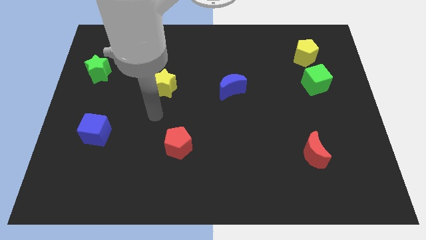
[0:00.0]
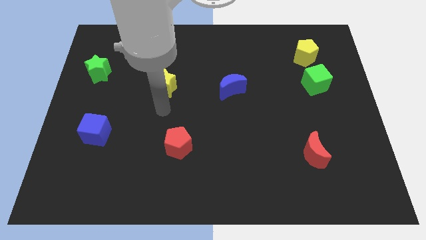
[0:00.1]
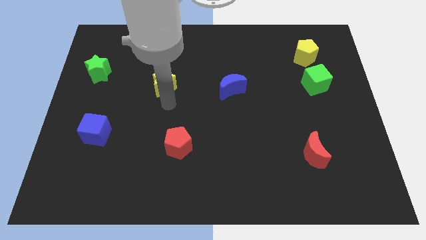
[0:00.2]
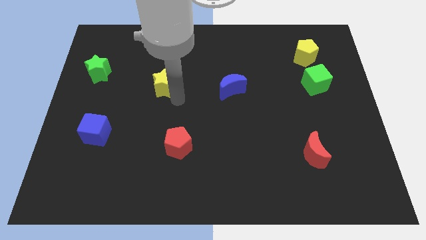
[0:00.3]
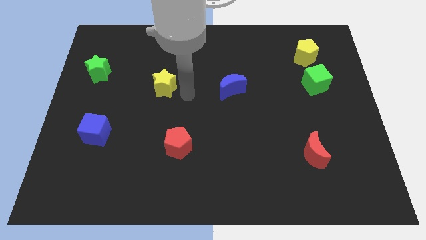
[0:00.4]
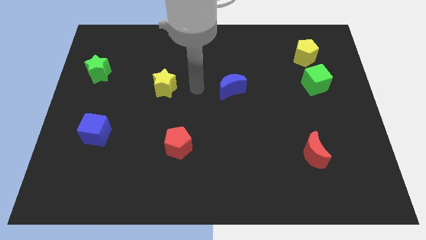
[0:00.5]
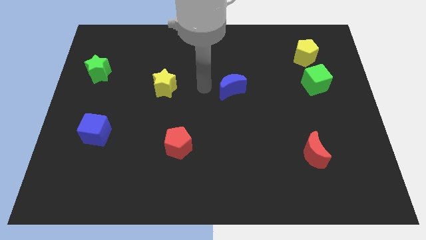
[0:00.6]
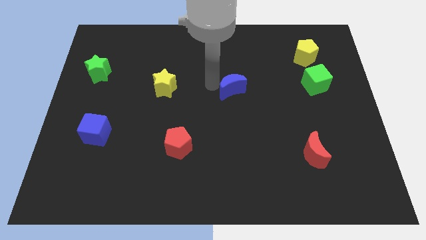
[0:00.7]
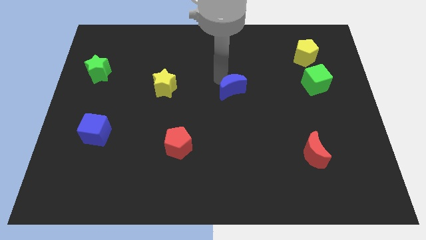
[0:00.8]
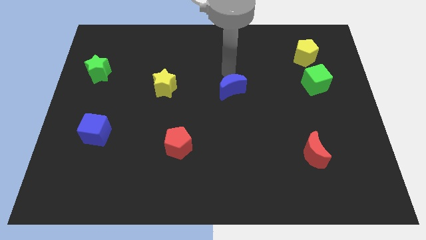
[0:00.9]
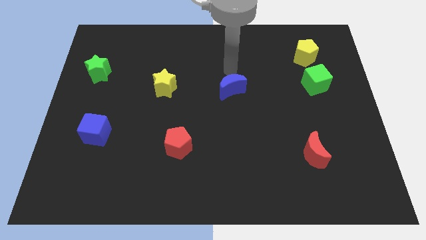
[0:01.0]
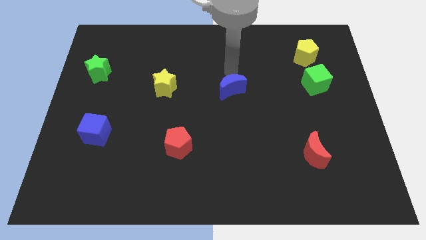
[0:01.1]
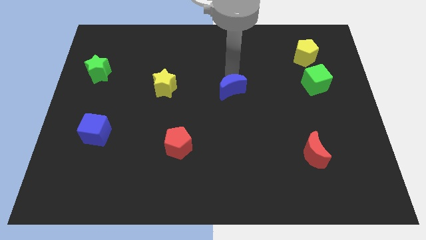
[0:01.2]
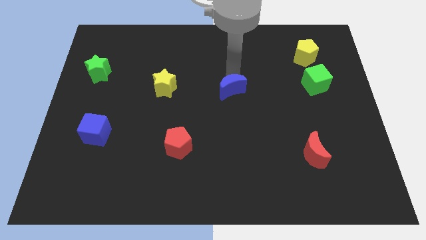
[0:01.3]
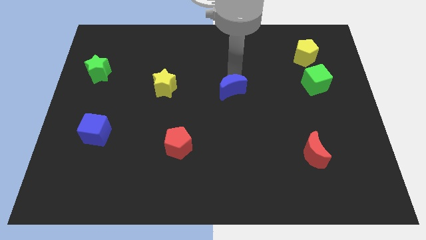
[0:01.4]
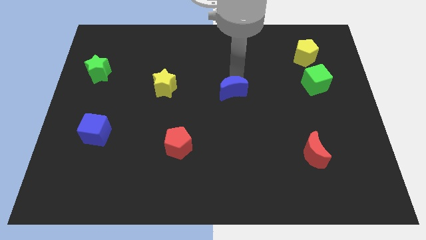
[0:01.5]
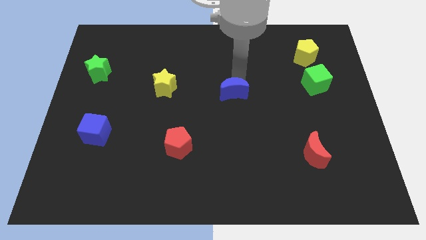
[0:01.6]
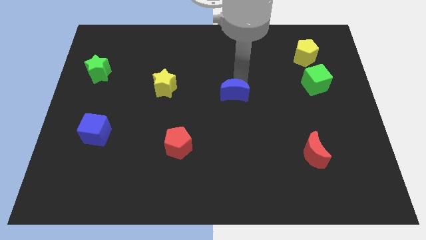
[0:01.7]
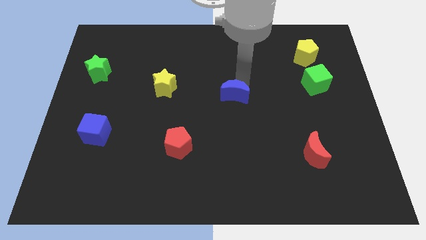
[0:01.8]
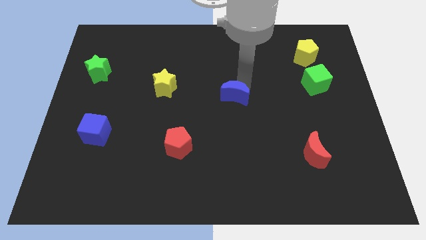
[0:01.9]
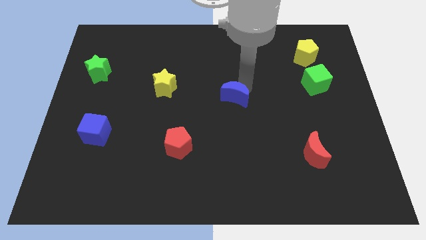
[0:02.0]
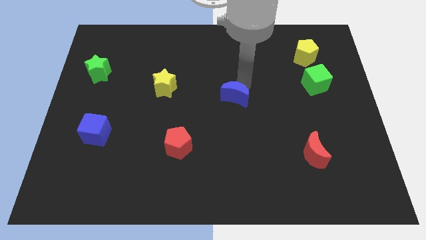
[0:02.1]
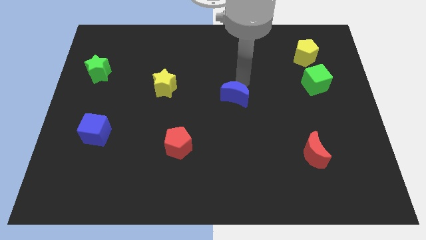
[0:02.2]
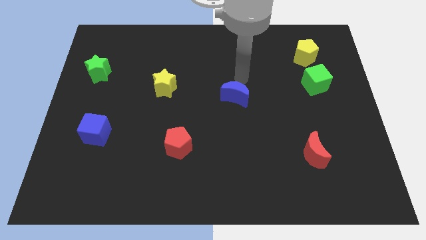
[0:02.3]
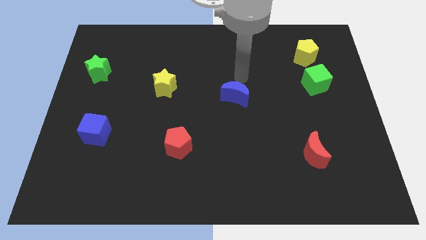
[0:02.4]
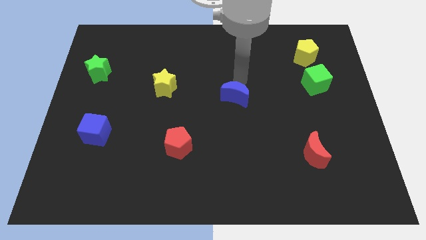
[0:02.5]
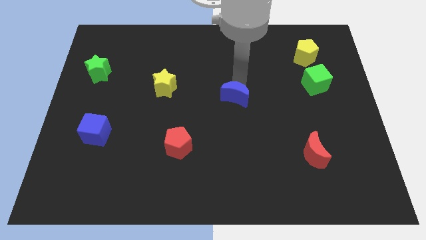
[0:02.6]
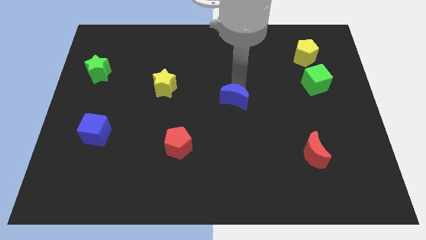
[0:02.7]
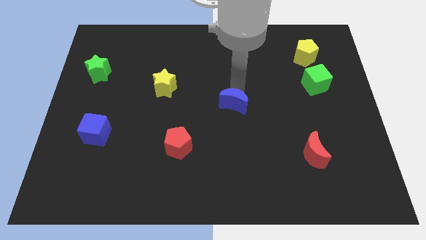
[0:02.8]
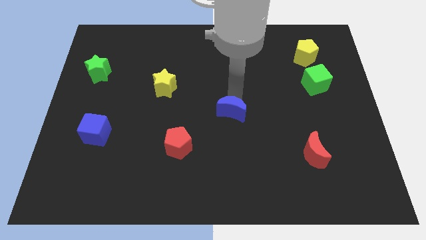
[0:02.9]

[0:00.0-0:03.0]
slightly move the blue moon down

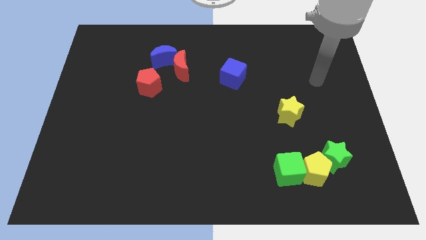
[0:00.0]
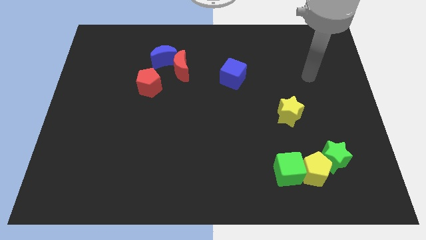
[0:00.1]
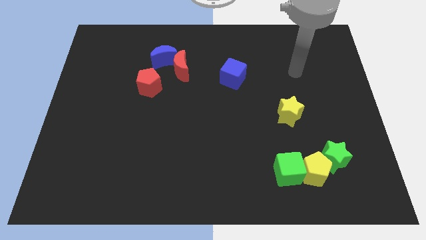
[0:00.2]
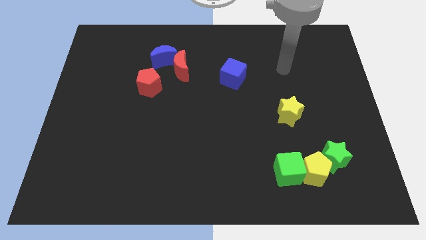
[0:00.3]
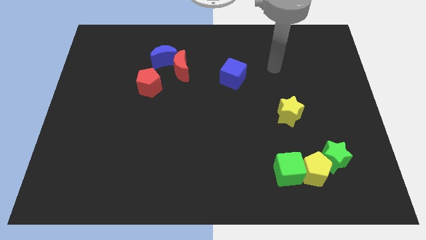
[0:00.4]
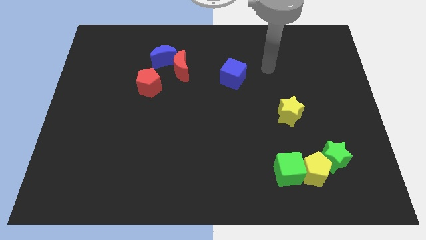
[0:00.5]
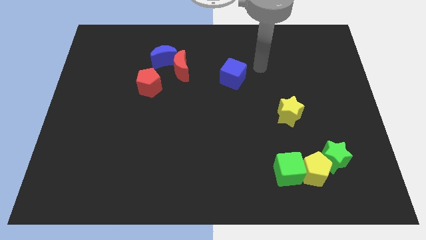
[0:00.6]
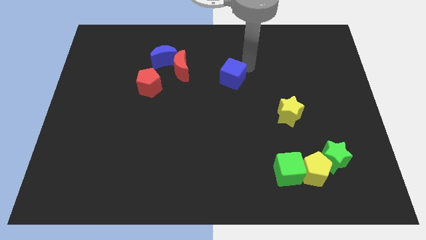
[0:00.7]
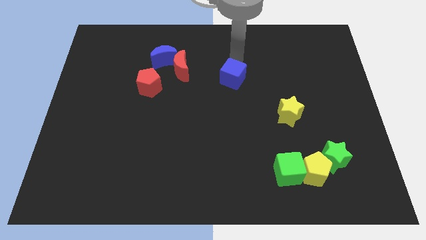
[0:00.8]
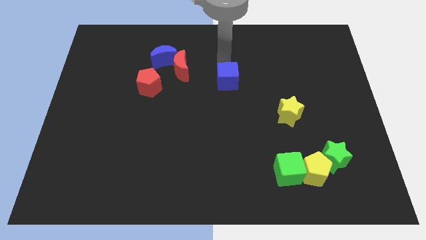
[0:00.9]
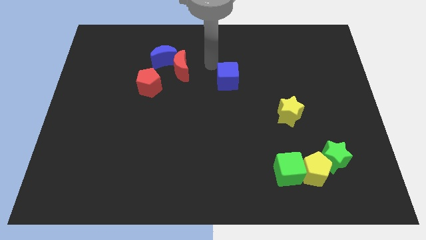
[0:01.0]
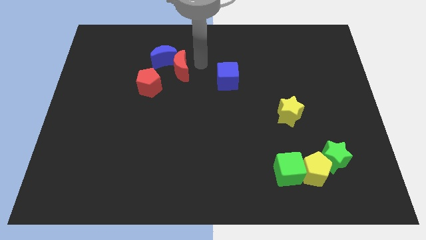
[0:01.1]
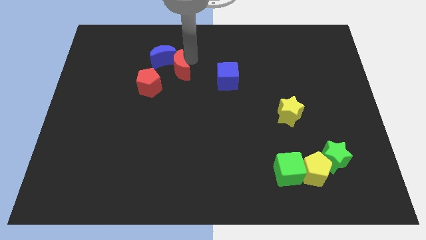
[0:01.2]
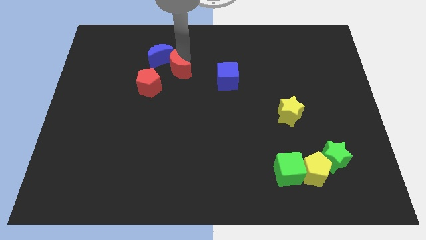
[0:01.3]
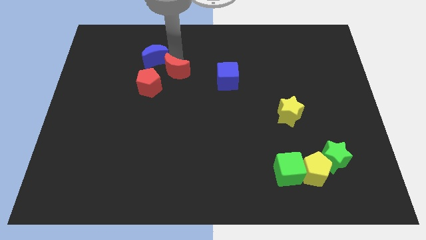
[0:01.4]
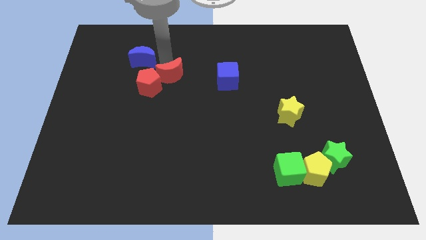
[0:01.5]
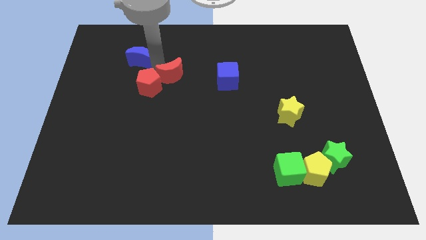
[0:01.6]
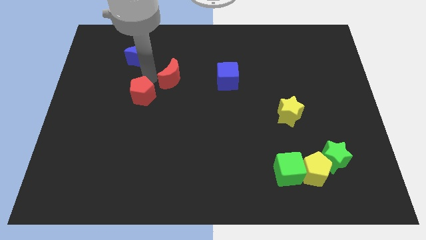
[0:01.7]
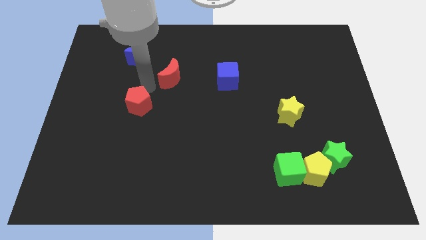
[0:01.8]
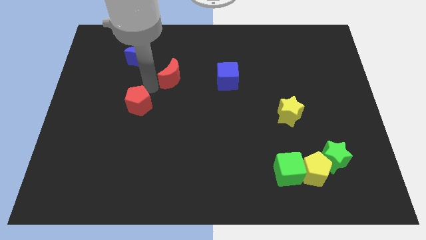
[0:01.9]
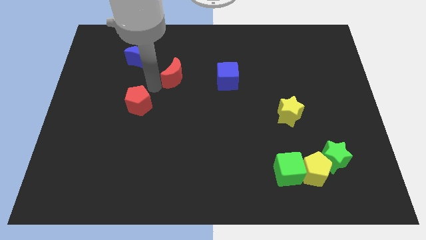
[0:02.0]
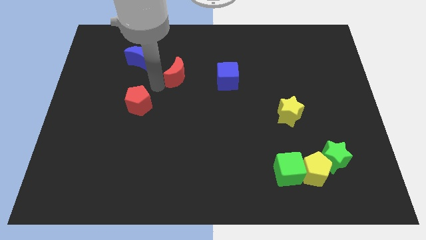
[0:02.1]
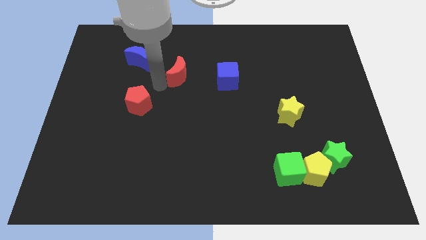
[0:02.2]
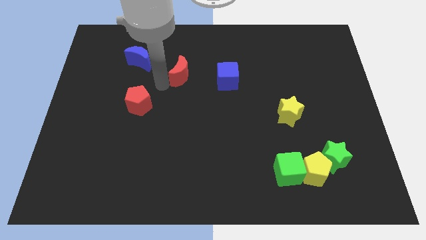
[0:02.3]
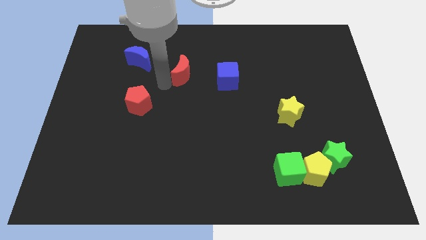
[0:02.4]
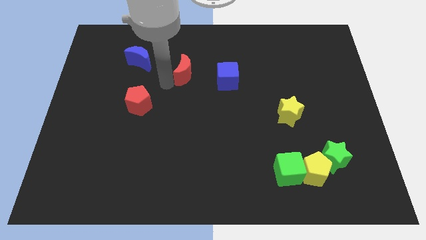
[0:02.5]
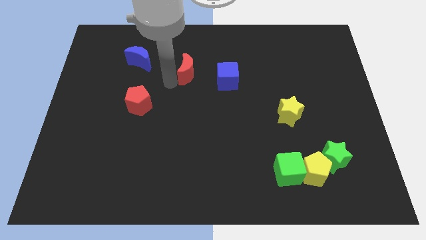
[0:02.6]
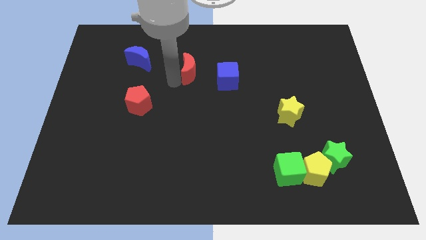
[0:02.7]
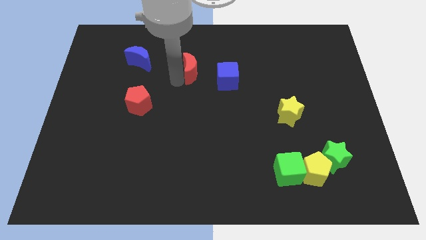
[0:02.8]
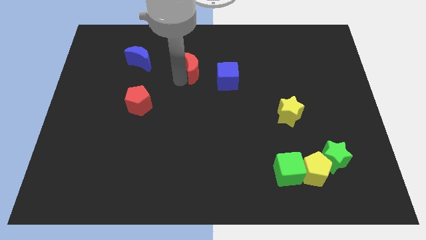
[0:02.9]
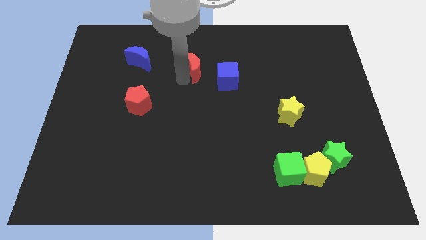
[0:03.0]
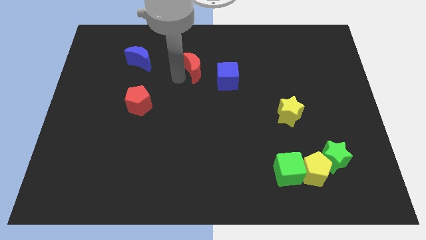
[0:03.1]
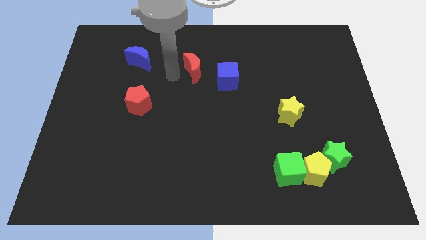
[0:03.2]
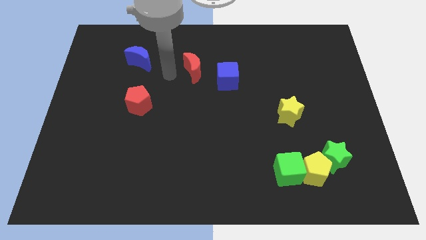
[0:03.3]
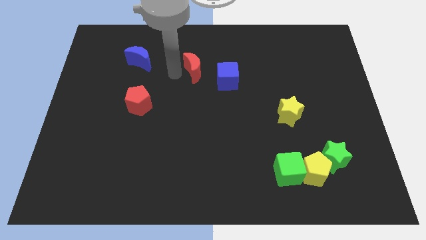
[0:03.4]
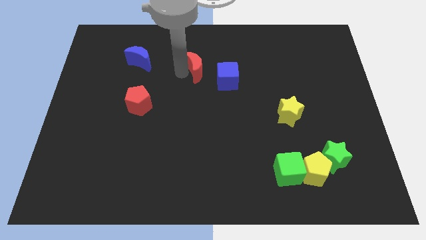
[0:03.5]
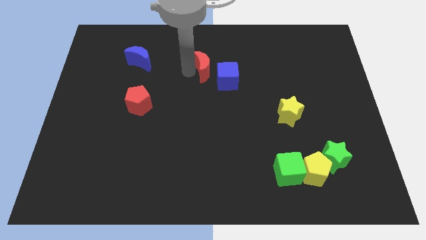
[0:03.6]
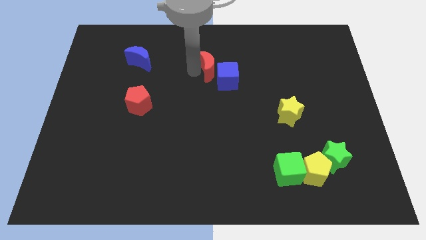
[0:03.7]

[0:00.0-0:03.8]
push the red moon to the right somewhat

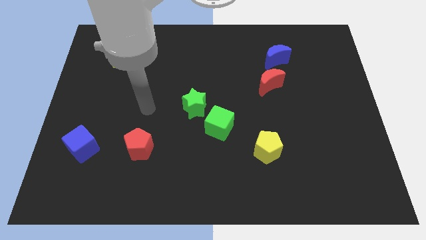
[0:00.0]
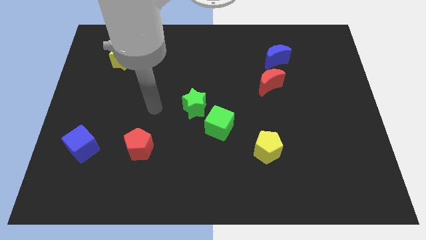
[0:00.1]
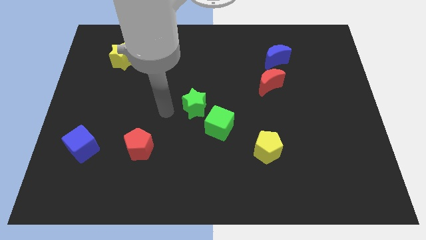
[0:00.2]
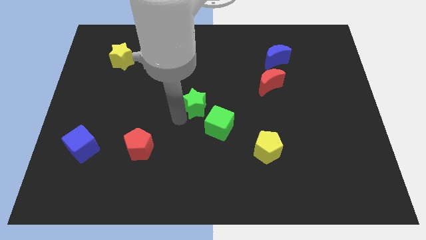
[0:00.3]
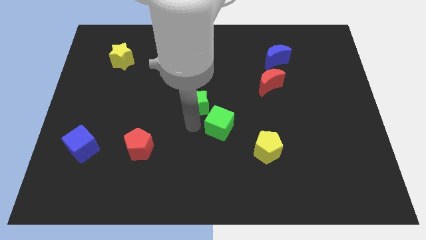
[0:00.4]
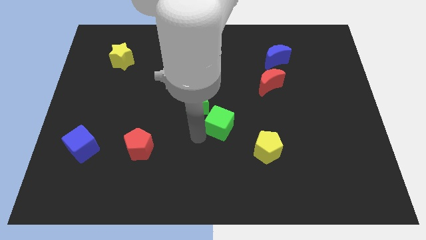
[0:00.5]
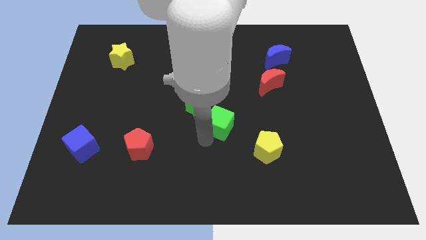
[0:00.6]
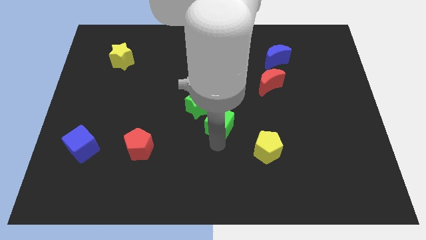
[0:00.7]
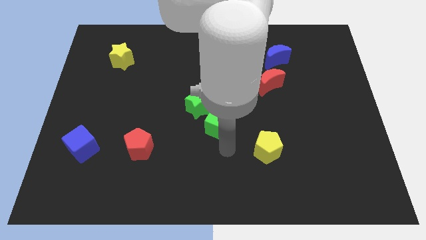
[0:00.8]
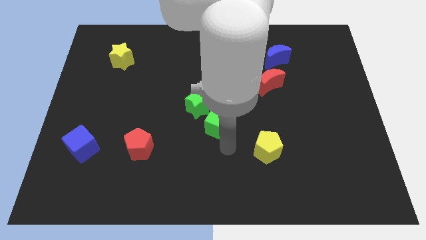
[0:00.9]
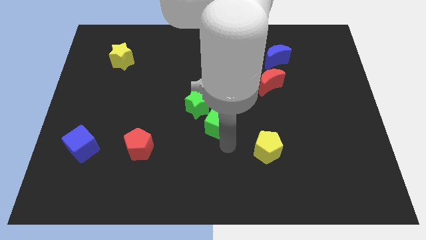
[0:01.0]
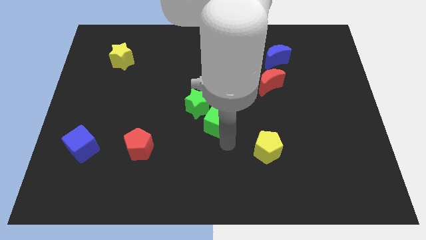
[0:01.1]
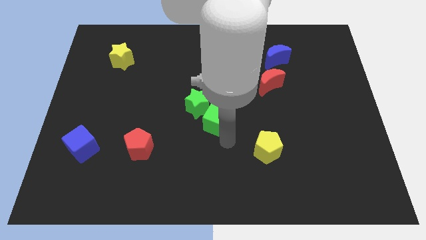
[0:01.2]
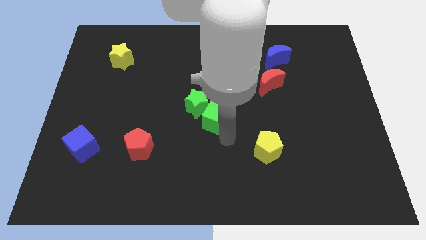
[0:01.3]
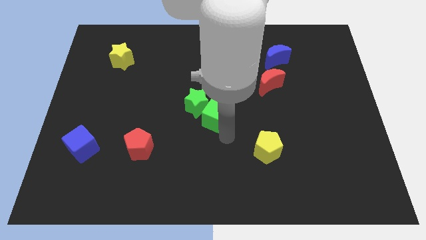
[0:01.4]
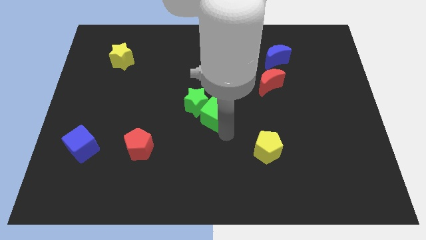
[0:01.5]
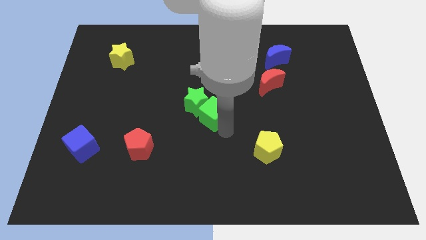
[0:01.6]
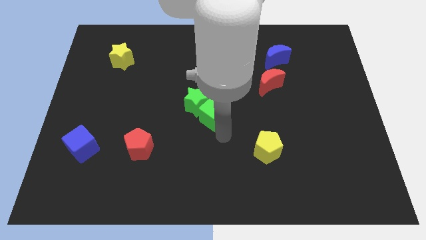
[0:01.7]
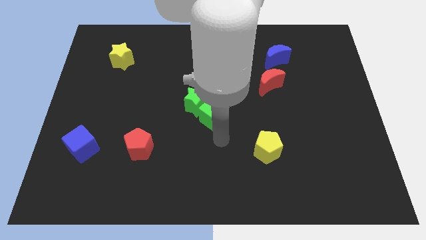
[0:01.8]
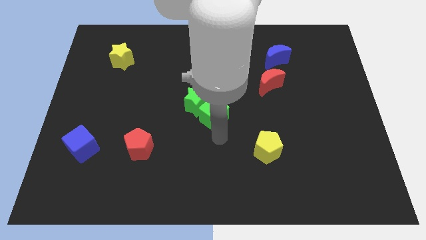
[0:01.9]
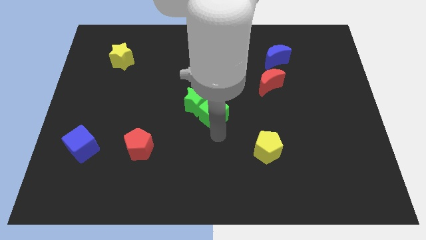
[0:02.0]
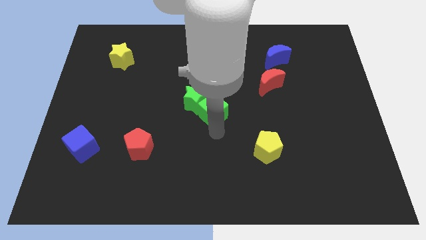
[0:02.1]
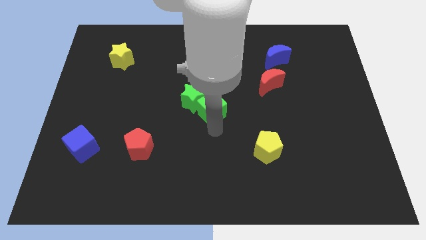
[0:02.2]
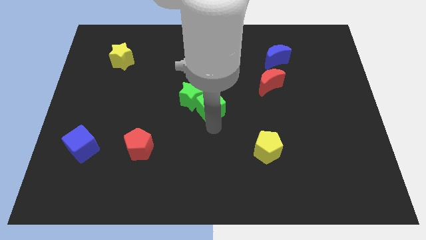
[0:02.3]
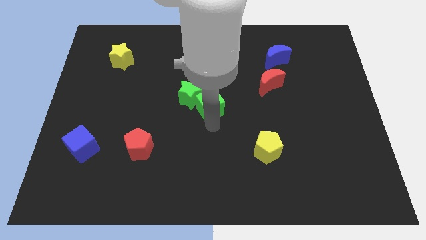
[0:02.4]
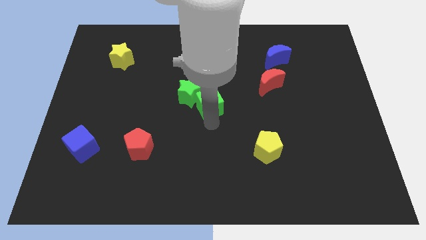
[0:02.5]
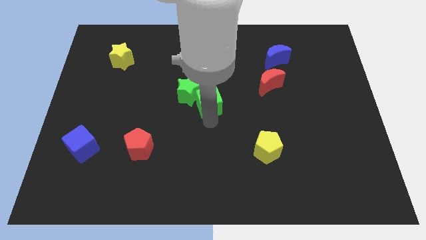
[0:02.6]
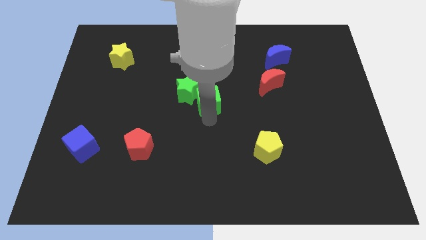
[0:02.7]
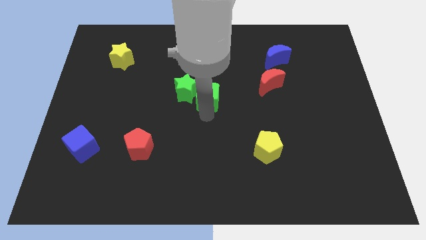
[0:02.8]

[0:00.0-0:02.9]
move the green cube up and left diagonally a little bit
